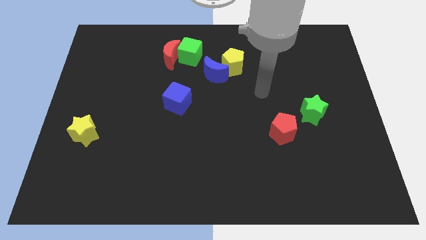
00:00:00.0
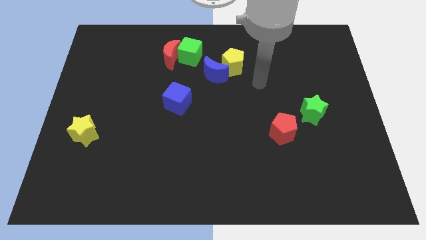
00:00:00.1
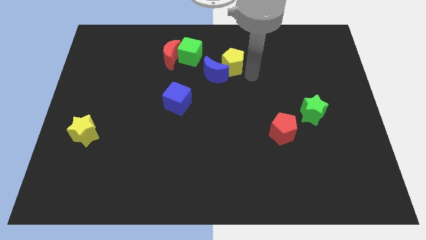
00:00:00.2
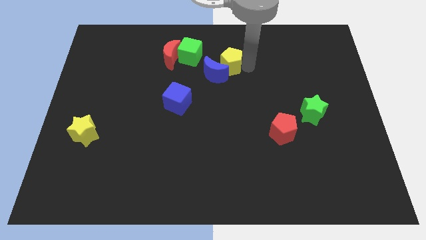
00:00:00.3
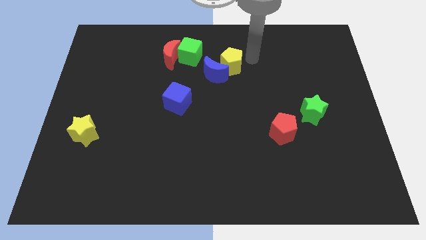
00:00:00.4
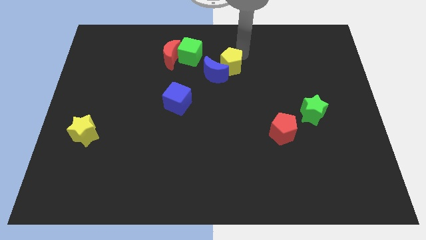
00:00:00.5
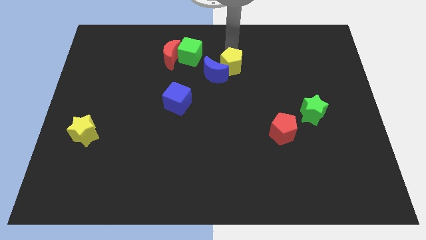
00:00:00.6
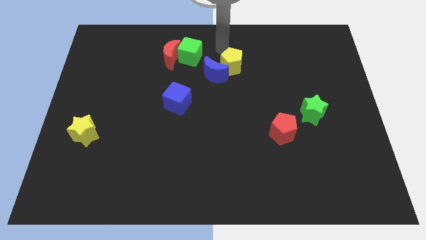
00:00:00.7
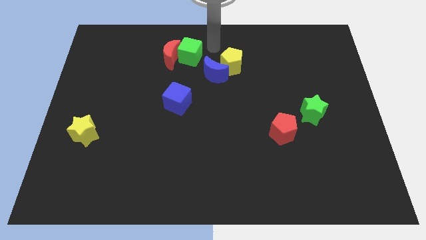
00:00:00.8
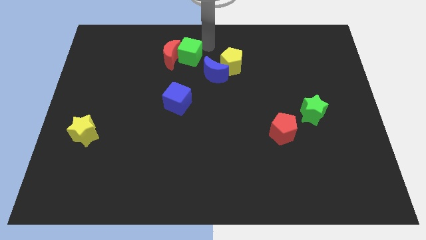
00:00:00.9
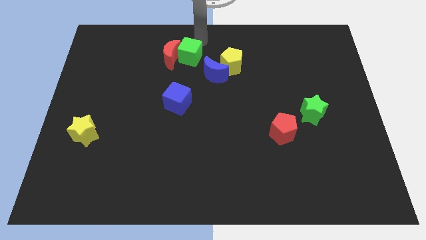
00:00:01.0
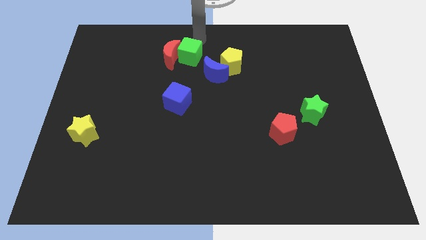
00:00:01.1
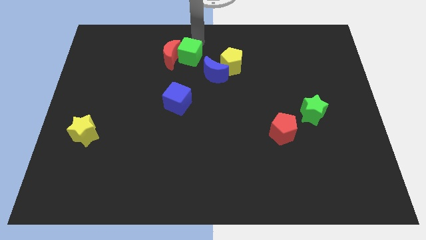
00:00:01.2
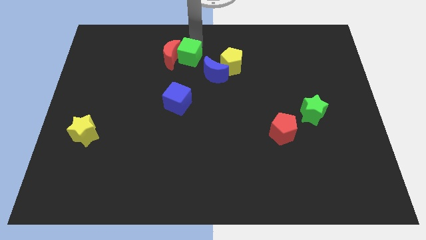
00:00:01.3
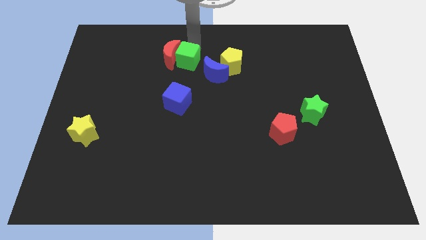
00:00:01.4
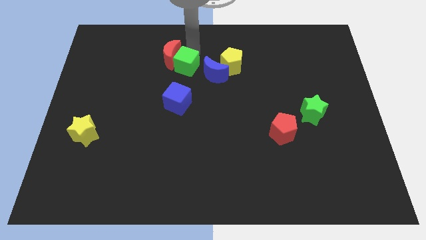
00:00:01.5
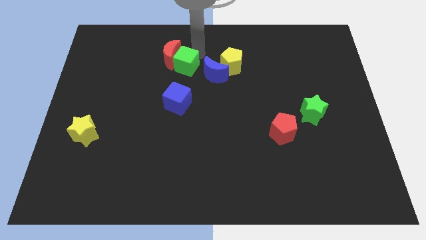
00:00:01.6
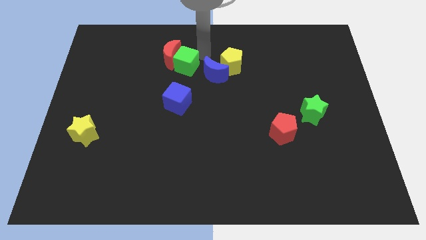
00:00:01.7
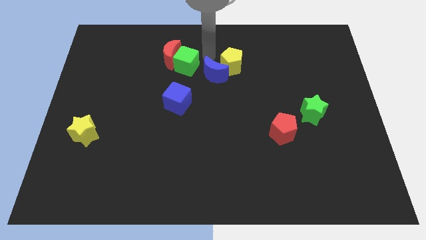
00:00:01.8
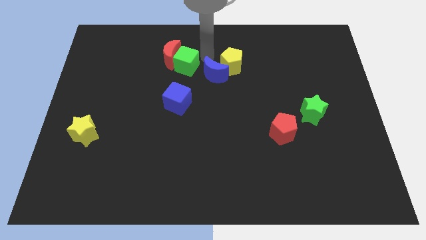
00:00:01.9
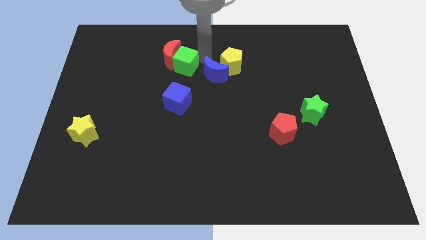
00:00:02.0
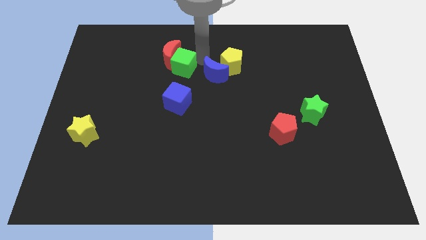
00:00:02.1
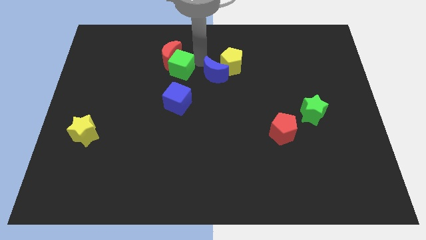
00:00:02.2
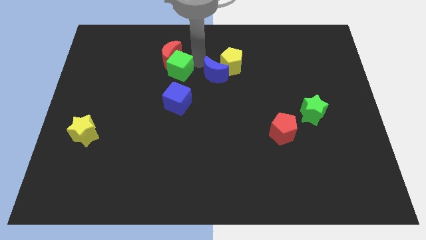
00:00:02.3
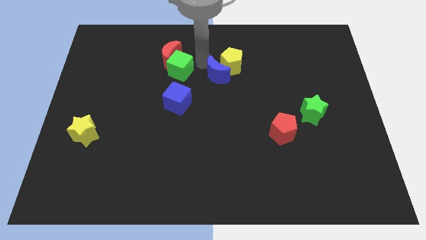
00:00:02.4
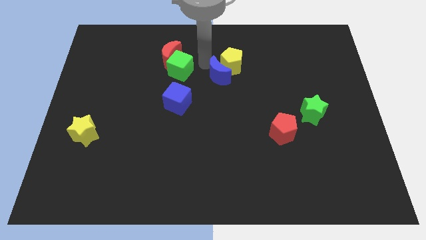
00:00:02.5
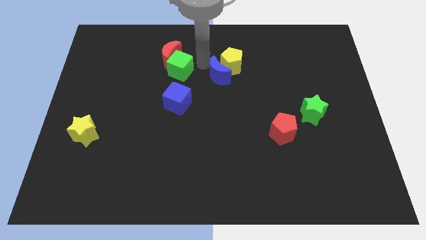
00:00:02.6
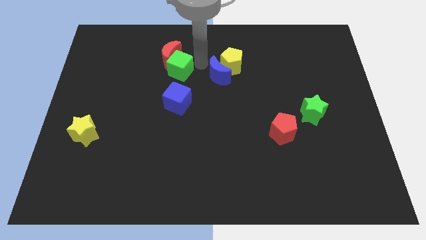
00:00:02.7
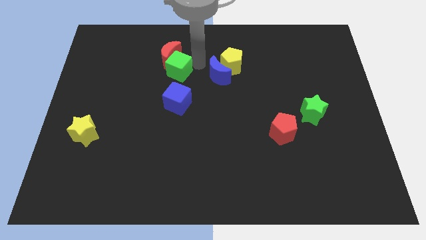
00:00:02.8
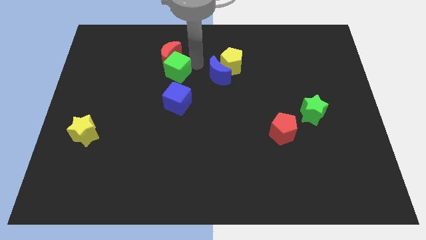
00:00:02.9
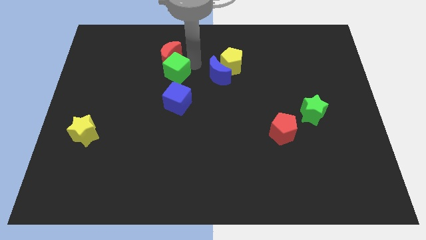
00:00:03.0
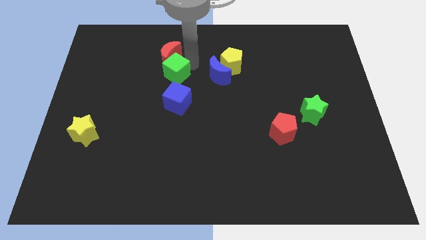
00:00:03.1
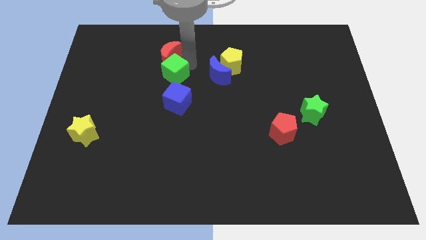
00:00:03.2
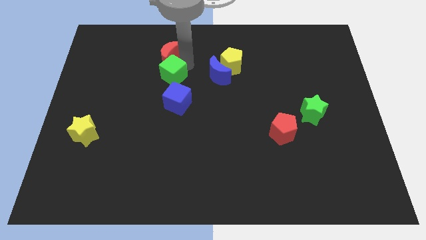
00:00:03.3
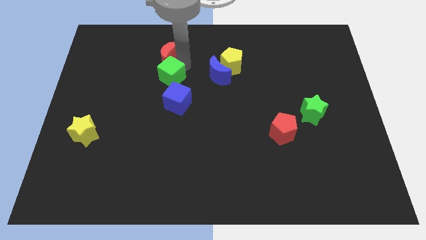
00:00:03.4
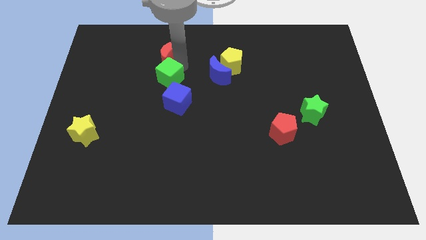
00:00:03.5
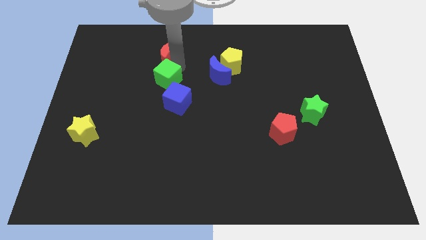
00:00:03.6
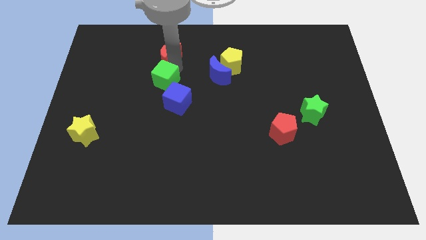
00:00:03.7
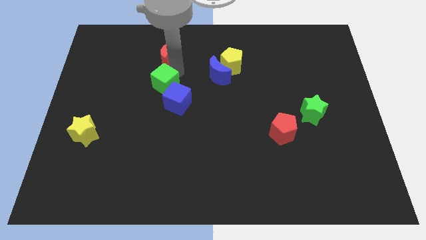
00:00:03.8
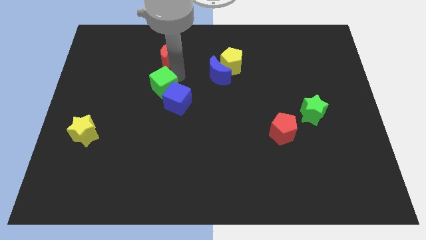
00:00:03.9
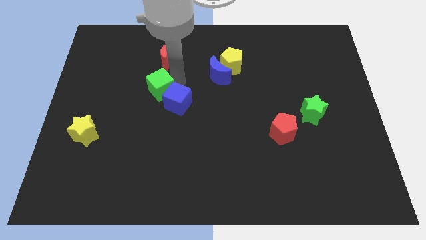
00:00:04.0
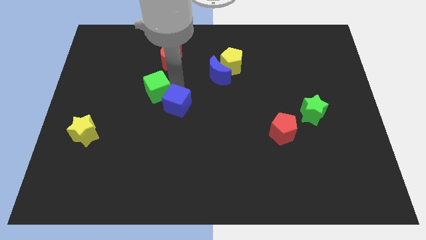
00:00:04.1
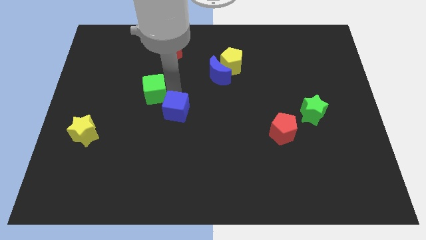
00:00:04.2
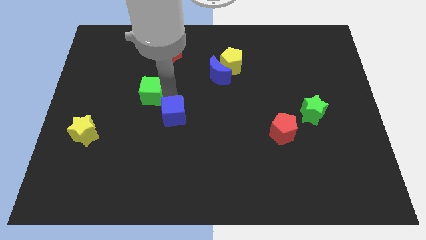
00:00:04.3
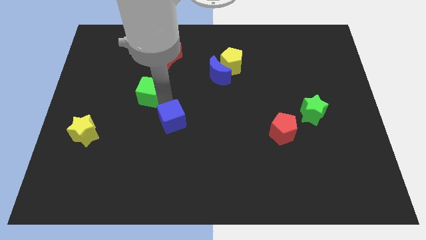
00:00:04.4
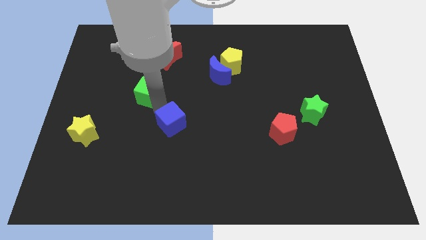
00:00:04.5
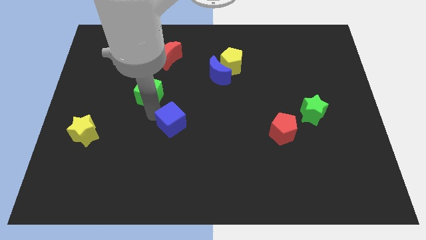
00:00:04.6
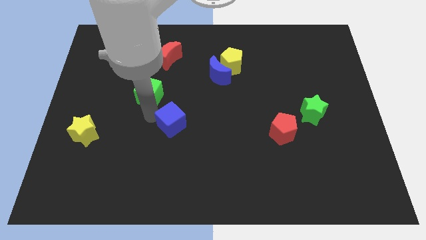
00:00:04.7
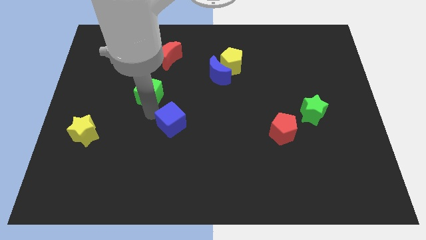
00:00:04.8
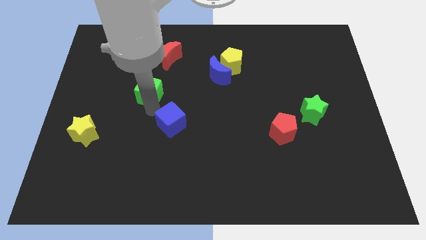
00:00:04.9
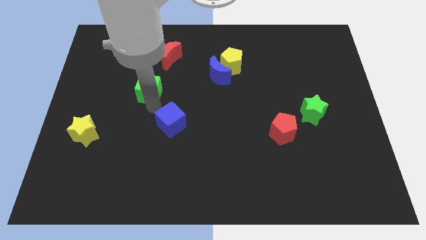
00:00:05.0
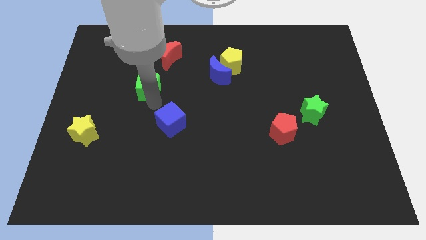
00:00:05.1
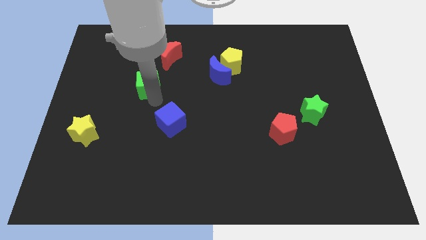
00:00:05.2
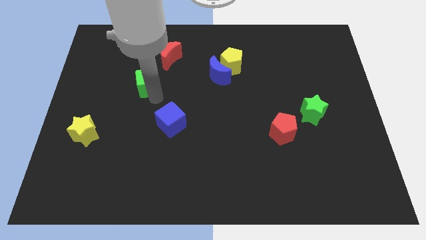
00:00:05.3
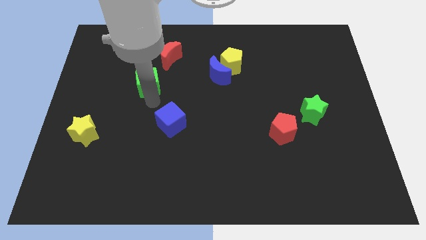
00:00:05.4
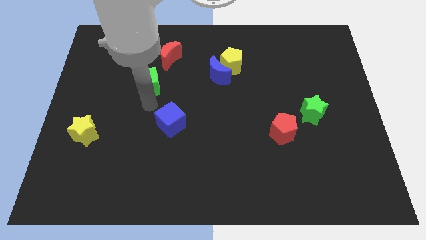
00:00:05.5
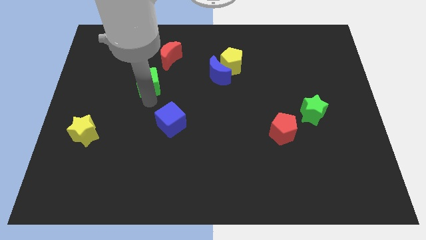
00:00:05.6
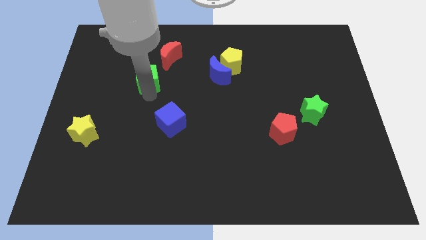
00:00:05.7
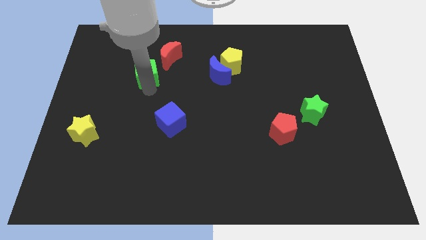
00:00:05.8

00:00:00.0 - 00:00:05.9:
slide the green cube left a little

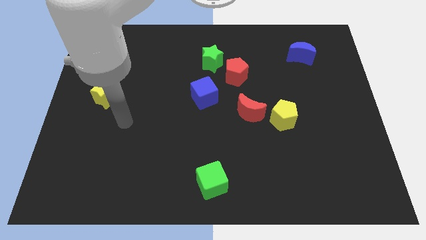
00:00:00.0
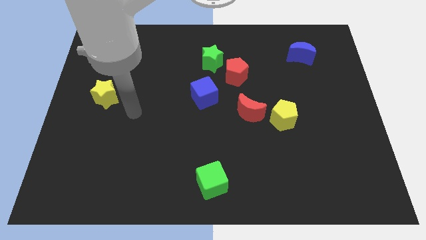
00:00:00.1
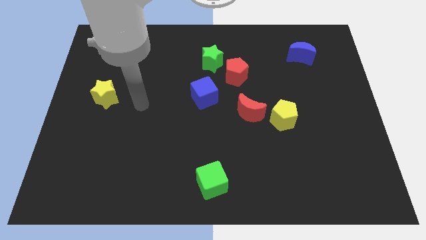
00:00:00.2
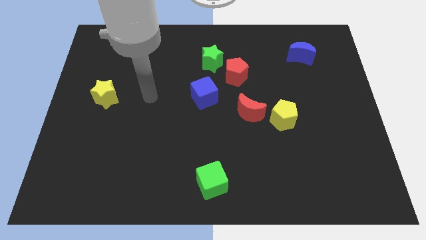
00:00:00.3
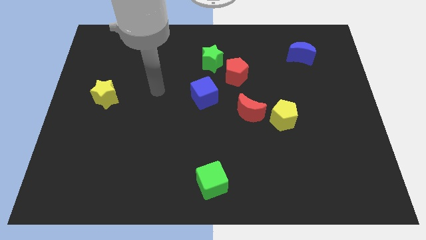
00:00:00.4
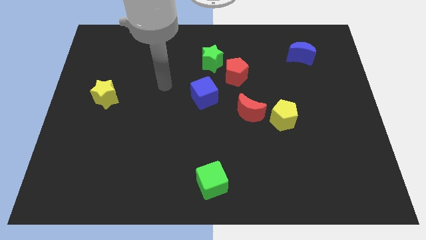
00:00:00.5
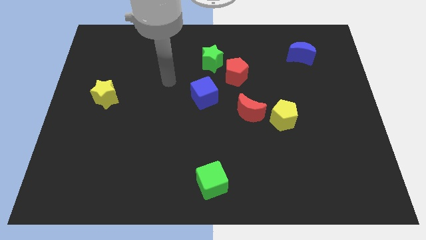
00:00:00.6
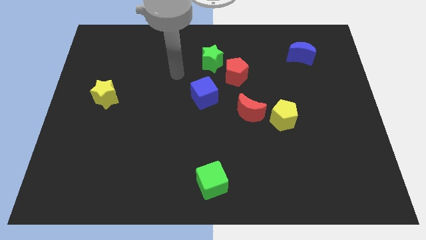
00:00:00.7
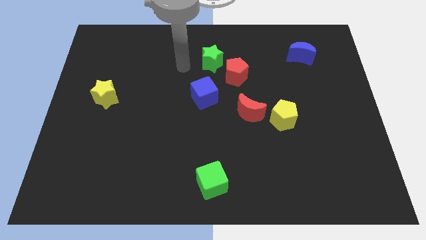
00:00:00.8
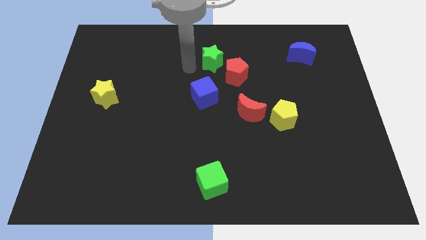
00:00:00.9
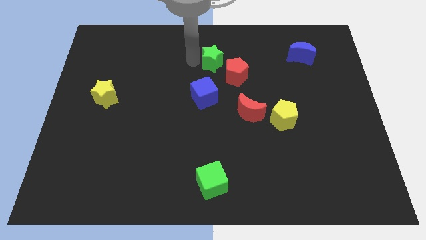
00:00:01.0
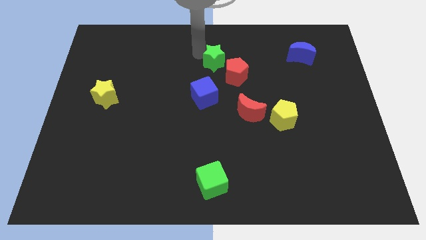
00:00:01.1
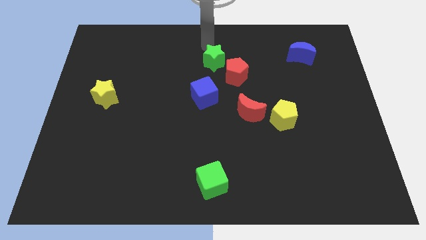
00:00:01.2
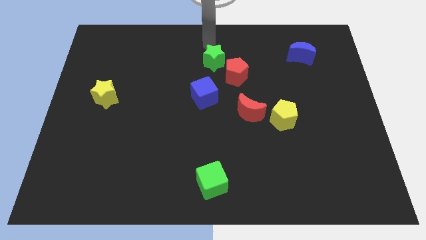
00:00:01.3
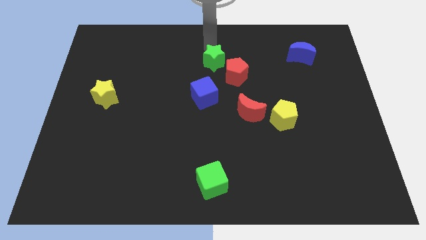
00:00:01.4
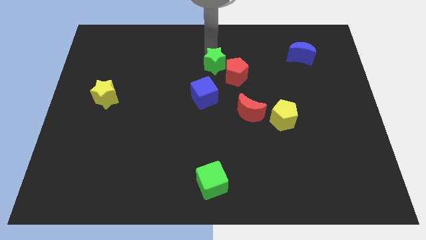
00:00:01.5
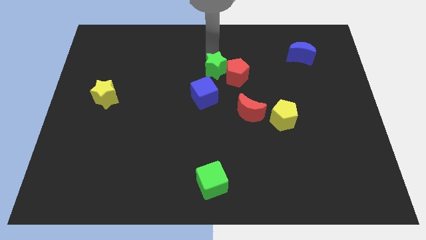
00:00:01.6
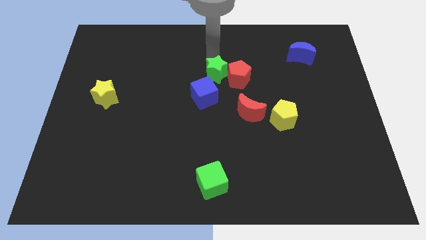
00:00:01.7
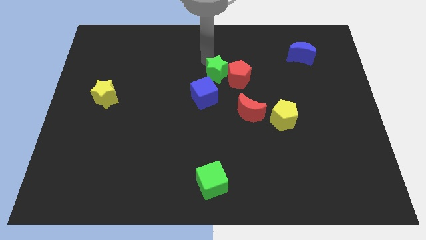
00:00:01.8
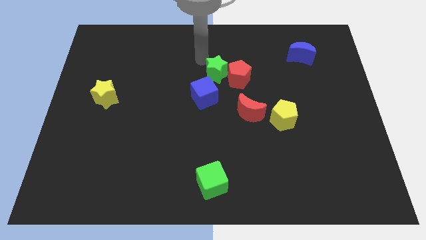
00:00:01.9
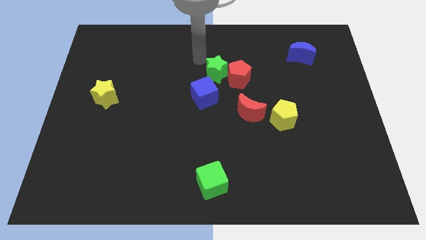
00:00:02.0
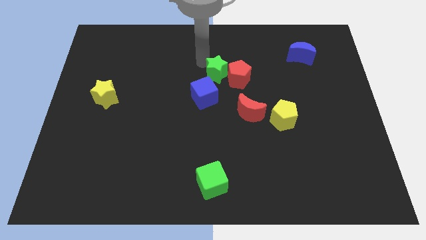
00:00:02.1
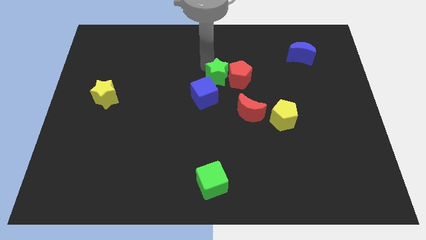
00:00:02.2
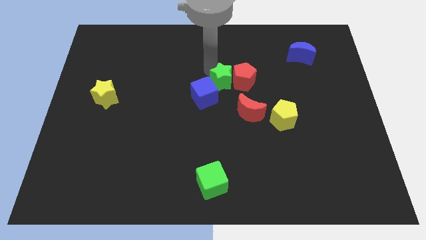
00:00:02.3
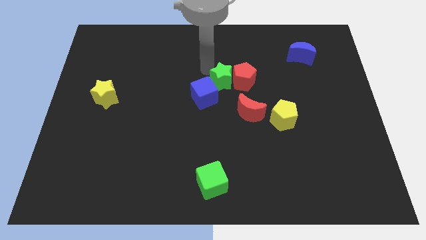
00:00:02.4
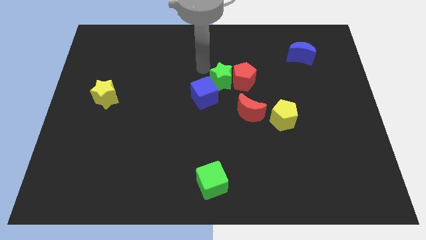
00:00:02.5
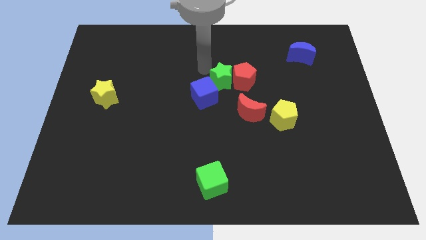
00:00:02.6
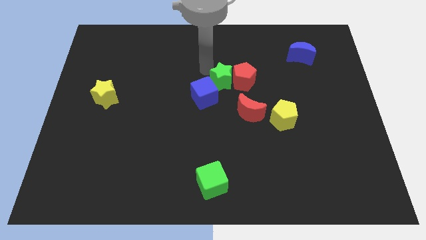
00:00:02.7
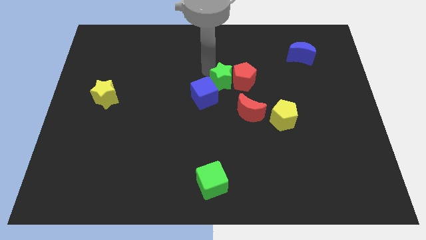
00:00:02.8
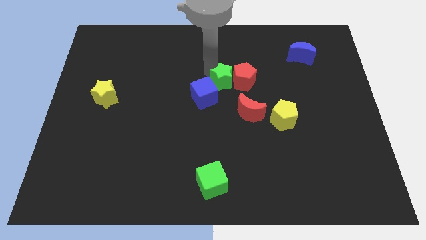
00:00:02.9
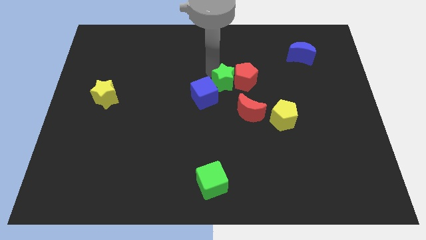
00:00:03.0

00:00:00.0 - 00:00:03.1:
slightly move the green star downwards and to the right diagonally
